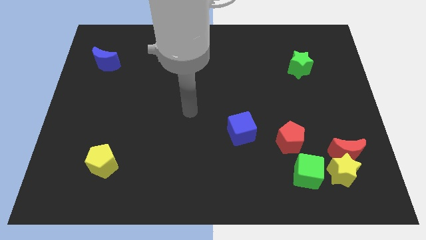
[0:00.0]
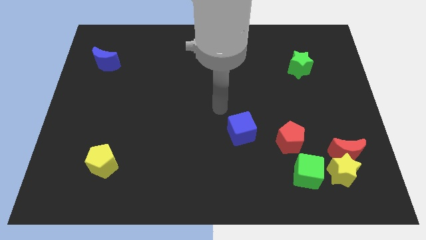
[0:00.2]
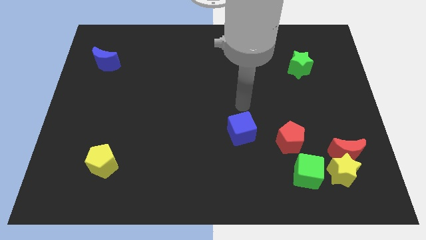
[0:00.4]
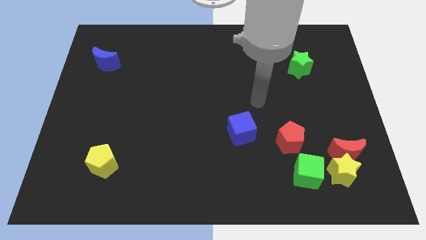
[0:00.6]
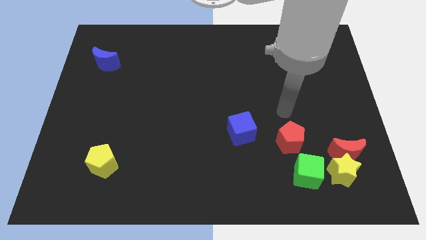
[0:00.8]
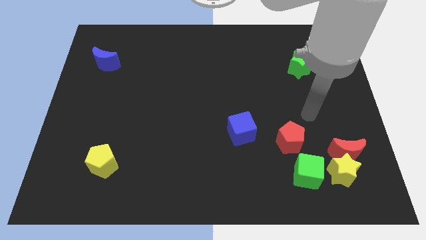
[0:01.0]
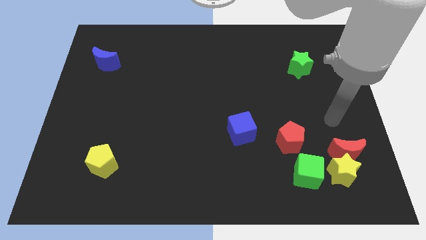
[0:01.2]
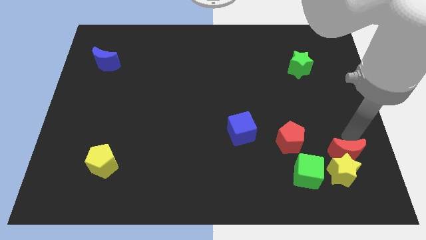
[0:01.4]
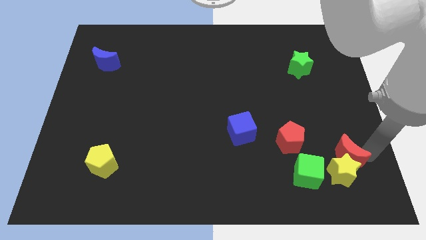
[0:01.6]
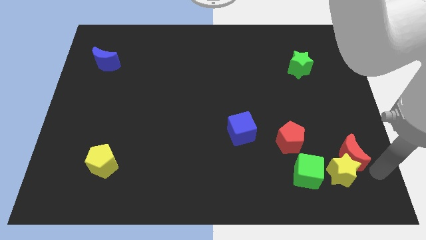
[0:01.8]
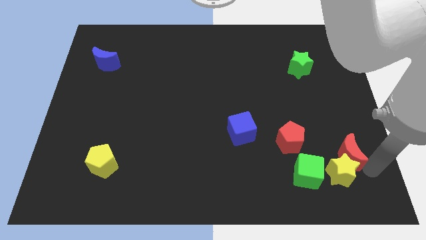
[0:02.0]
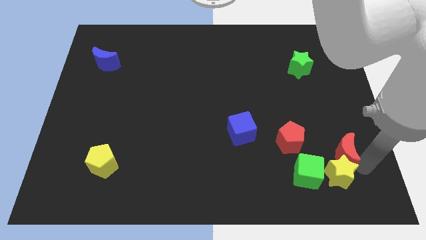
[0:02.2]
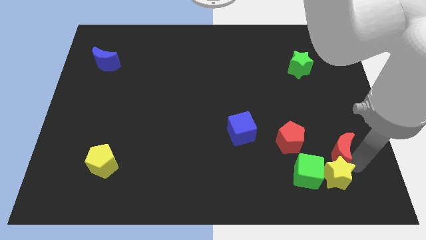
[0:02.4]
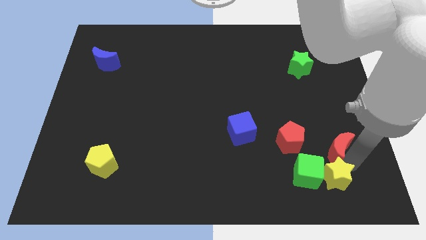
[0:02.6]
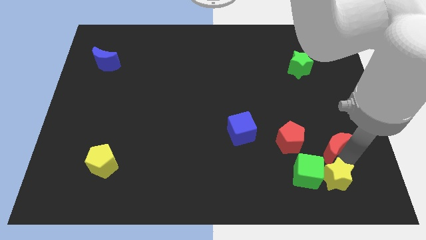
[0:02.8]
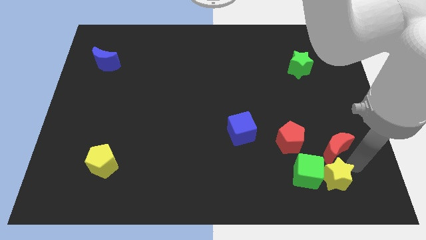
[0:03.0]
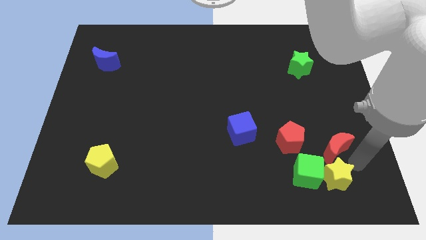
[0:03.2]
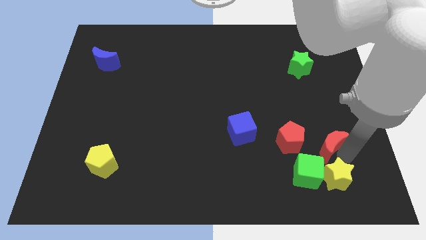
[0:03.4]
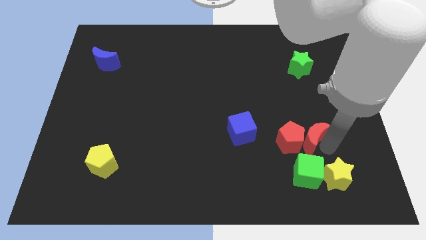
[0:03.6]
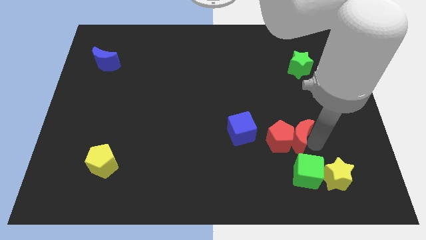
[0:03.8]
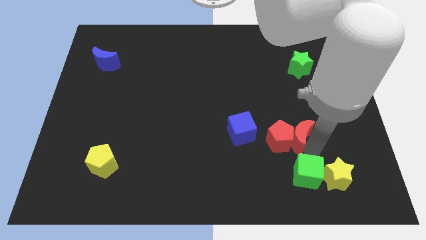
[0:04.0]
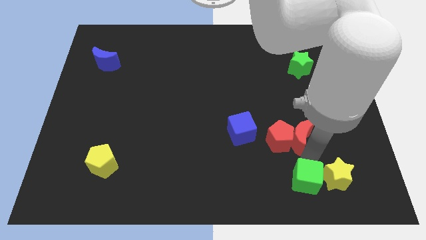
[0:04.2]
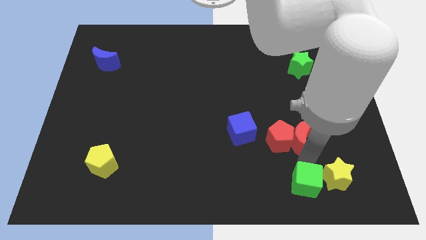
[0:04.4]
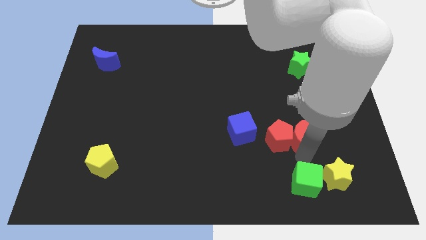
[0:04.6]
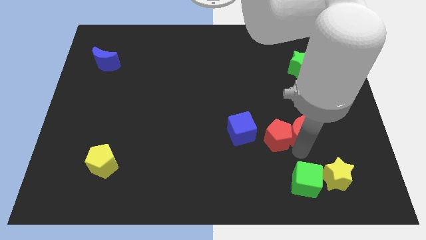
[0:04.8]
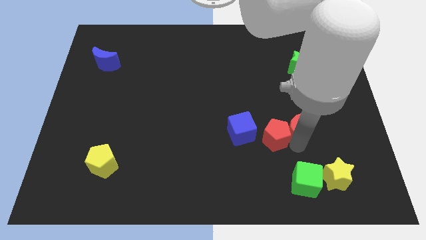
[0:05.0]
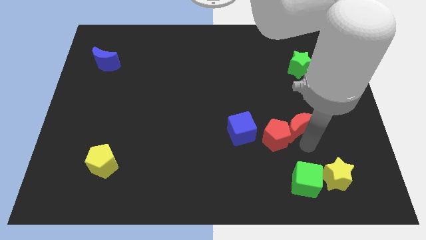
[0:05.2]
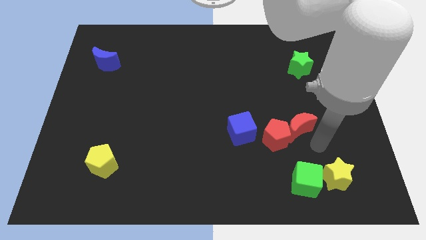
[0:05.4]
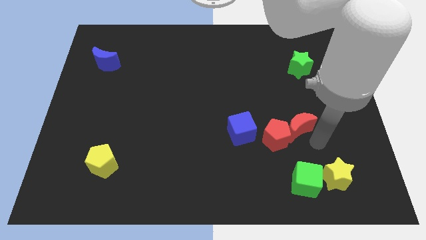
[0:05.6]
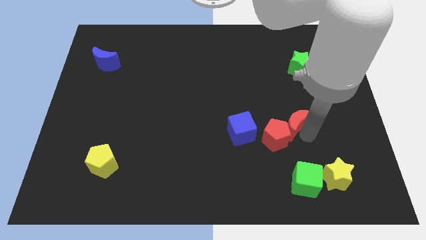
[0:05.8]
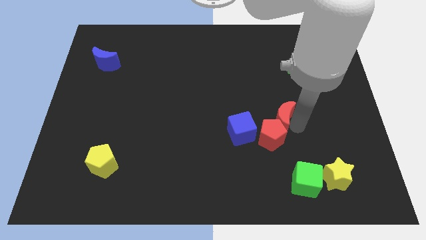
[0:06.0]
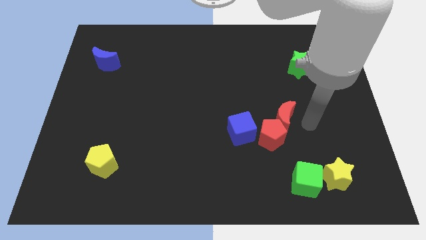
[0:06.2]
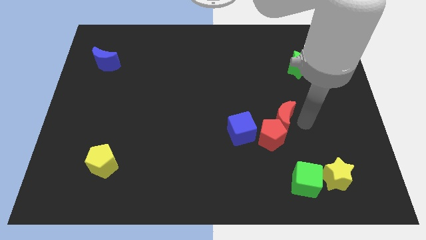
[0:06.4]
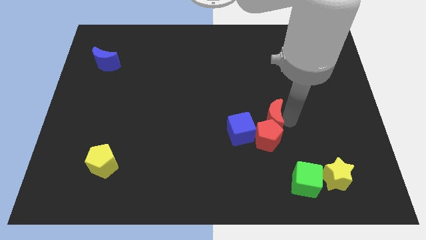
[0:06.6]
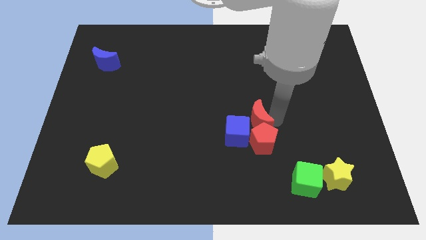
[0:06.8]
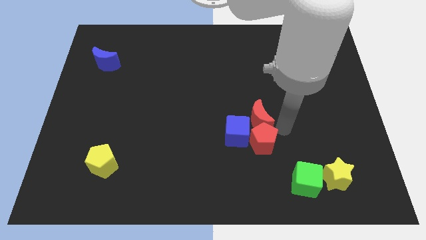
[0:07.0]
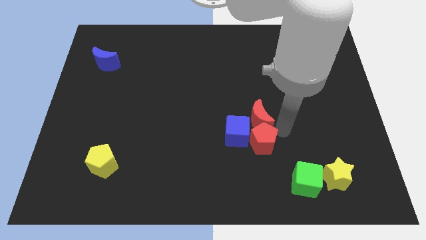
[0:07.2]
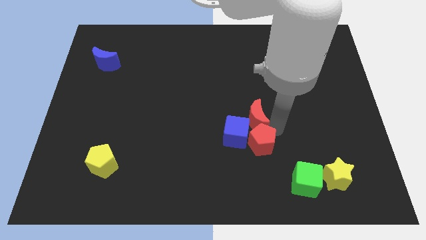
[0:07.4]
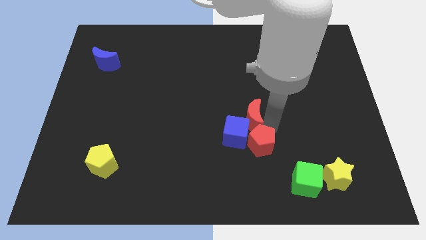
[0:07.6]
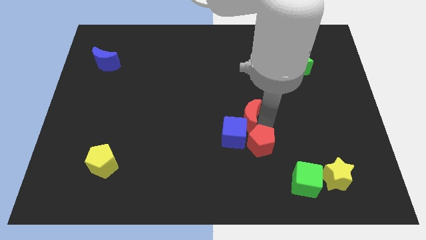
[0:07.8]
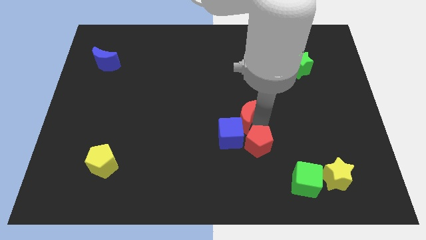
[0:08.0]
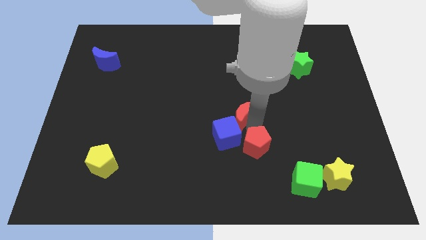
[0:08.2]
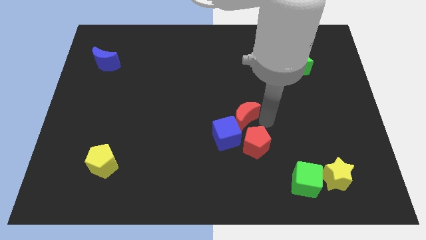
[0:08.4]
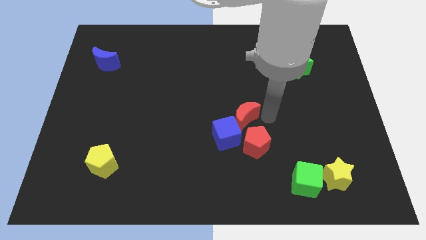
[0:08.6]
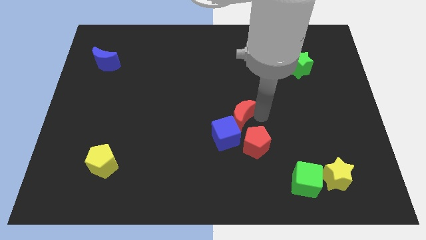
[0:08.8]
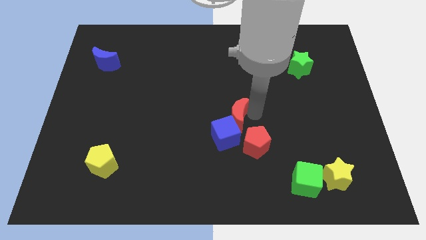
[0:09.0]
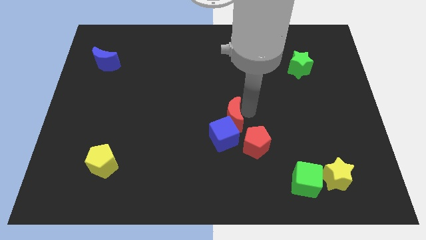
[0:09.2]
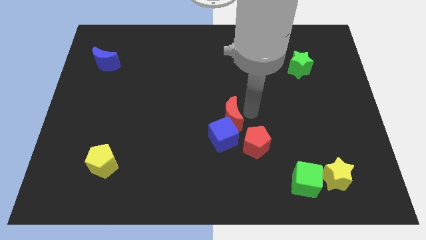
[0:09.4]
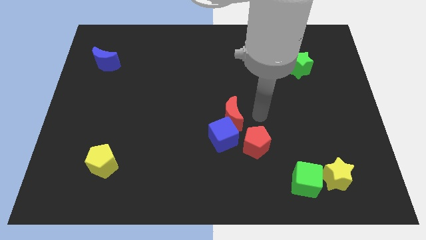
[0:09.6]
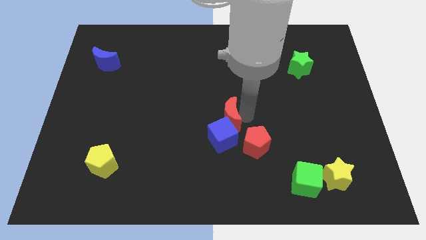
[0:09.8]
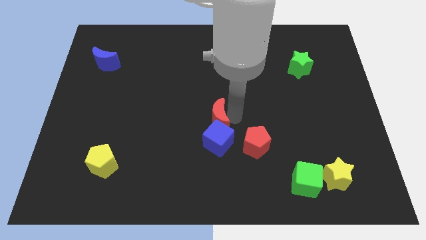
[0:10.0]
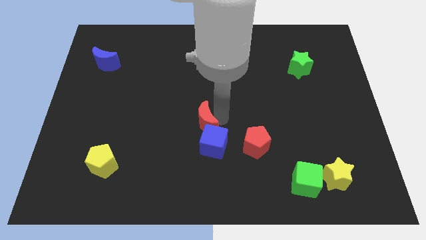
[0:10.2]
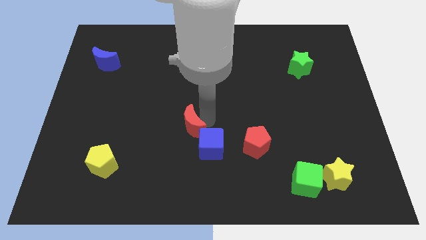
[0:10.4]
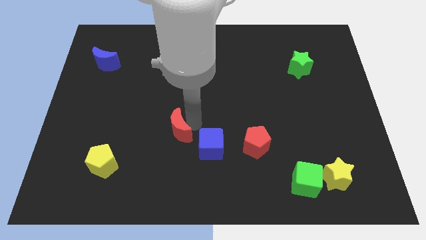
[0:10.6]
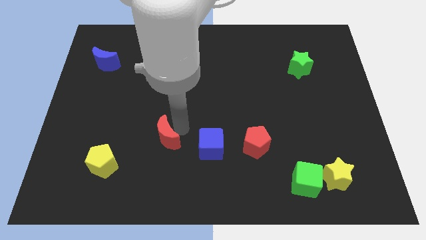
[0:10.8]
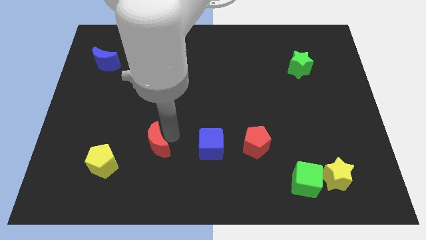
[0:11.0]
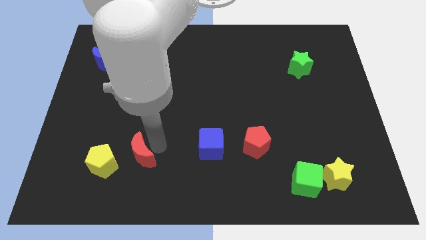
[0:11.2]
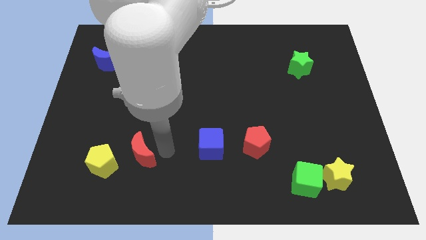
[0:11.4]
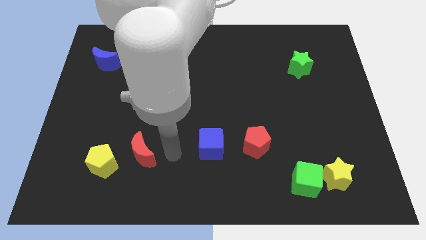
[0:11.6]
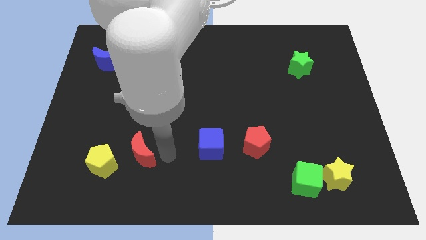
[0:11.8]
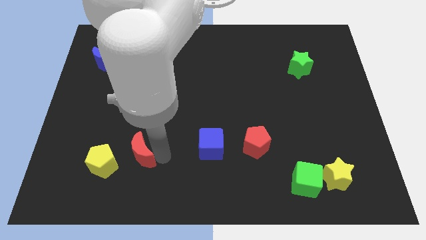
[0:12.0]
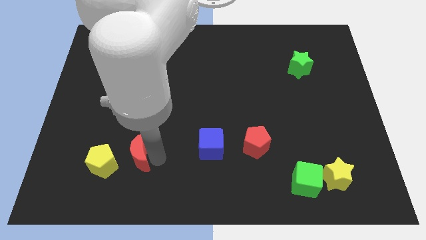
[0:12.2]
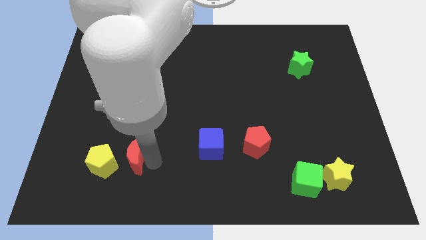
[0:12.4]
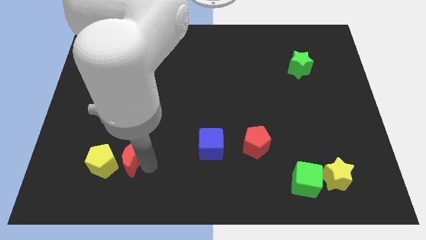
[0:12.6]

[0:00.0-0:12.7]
put the red moon close to the yellow pentagon

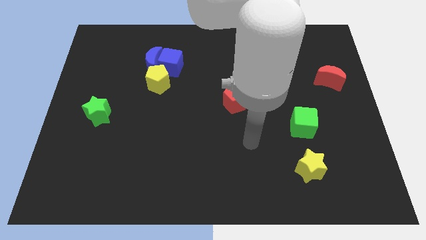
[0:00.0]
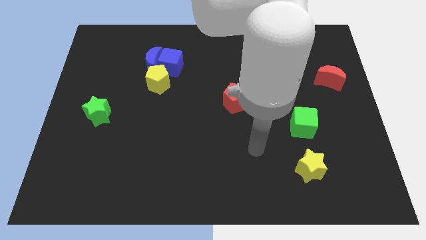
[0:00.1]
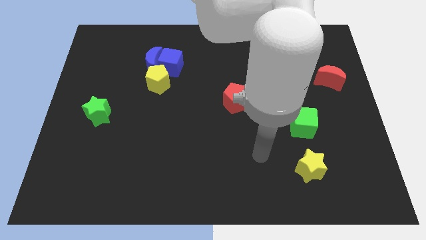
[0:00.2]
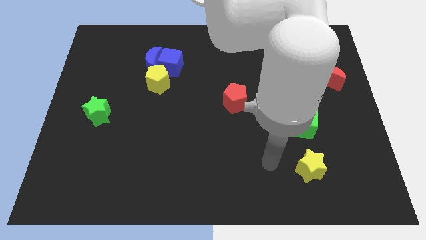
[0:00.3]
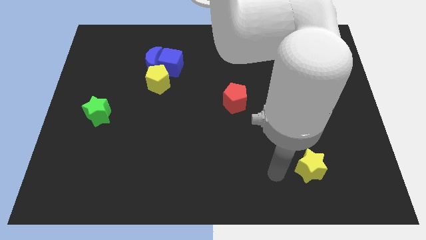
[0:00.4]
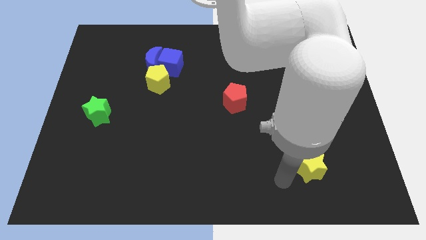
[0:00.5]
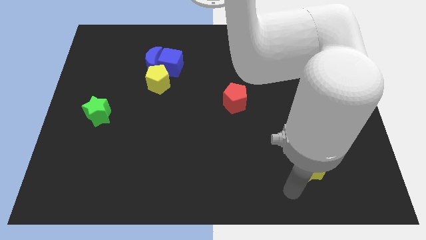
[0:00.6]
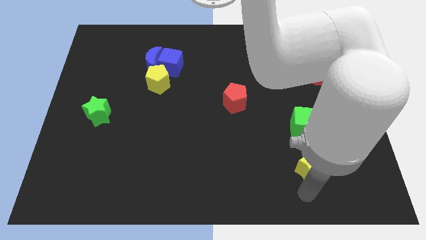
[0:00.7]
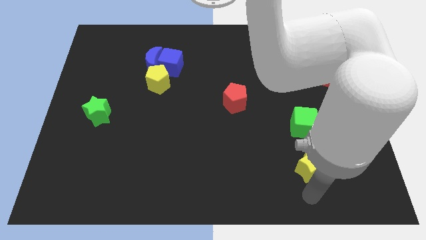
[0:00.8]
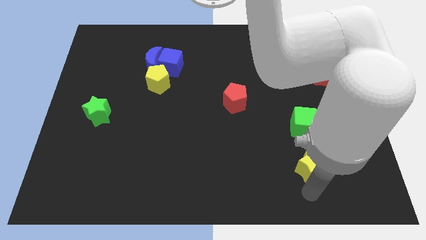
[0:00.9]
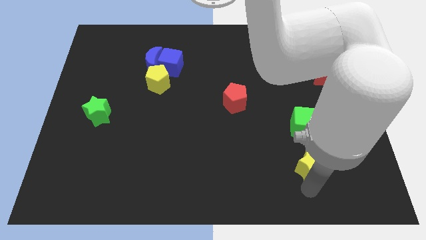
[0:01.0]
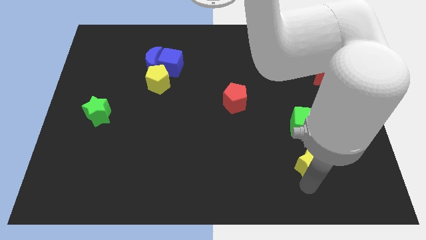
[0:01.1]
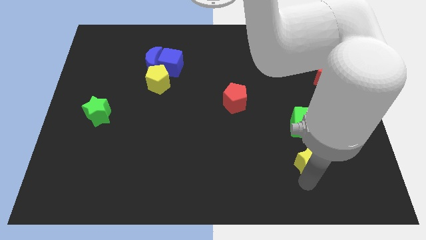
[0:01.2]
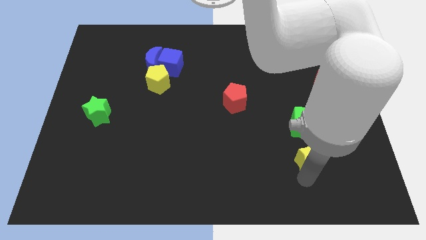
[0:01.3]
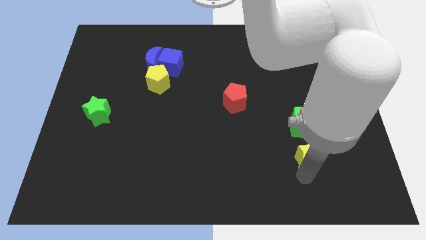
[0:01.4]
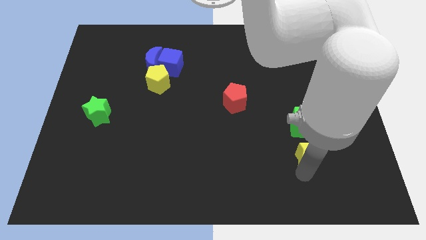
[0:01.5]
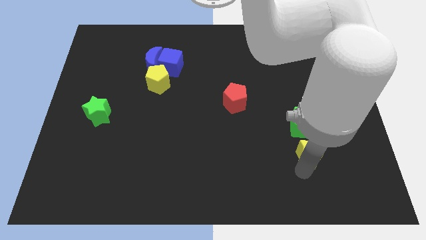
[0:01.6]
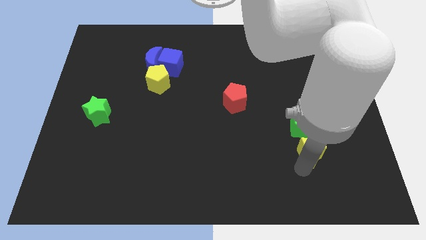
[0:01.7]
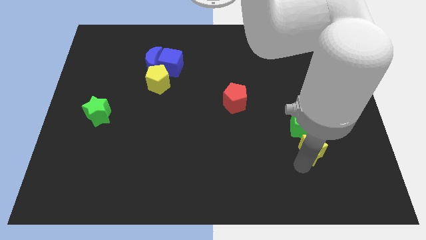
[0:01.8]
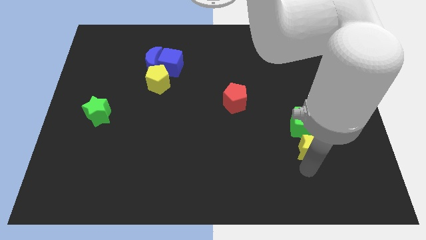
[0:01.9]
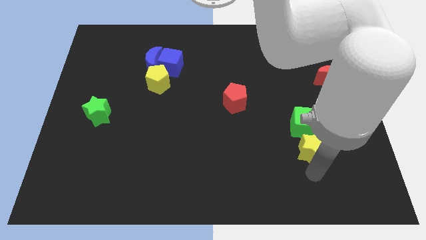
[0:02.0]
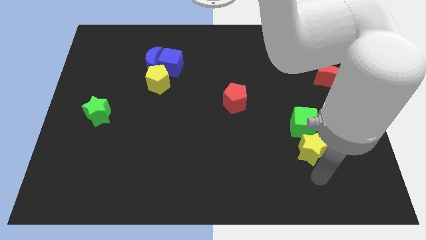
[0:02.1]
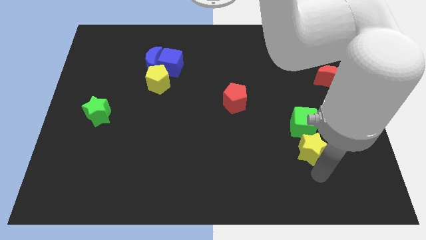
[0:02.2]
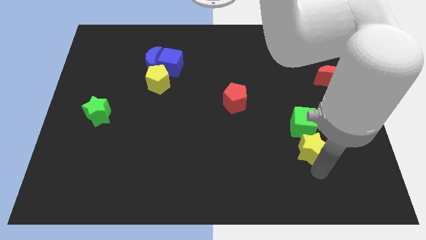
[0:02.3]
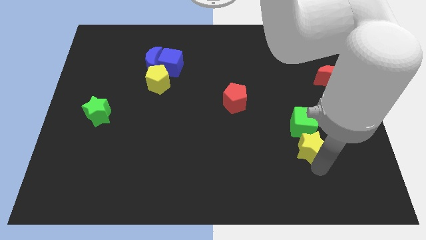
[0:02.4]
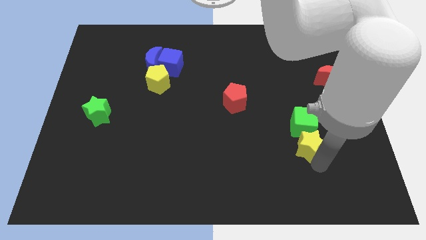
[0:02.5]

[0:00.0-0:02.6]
slide the yellow star next to the green cube
